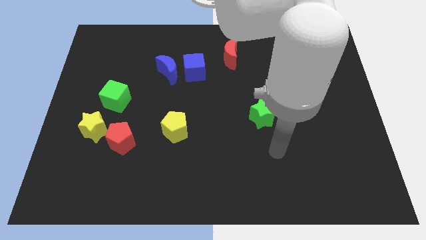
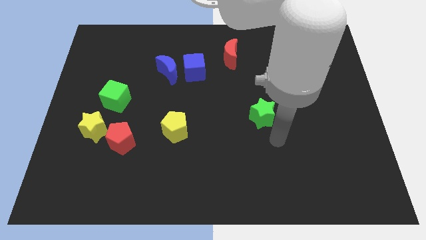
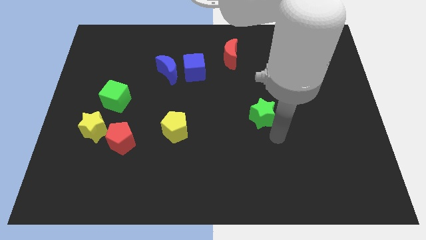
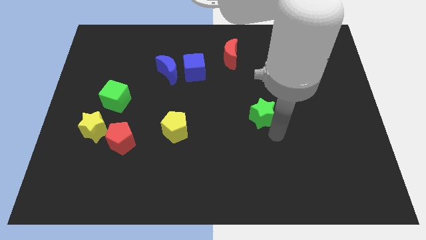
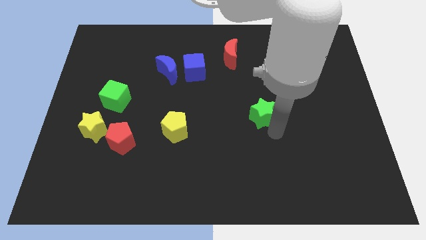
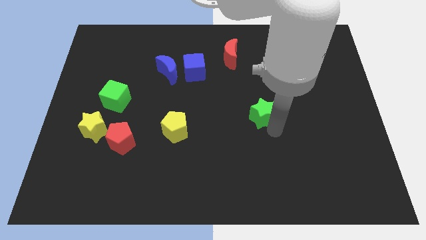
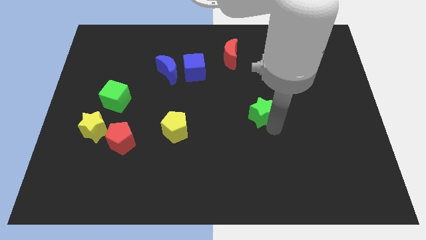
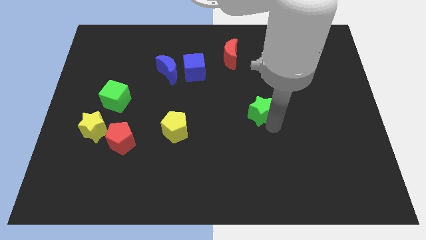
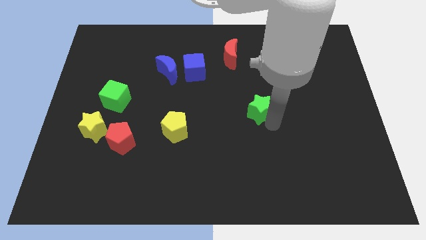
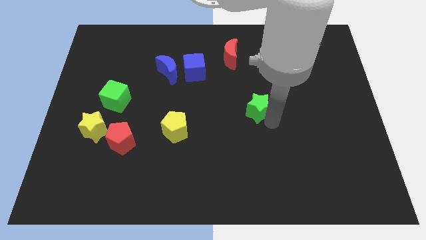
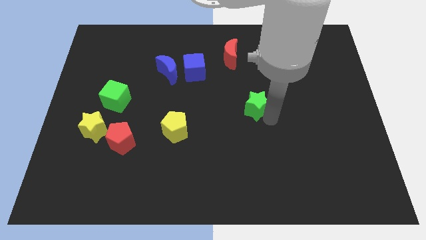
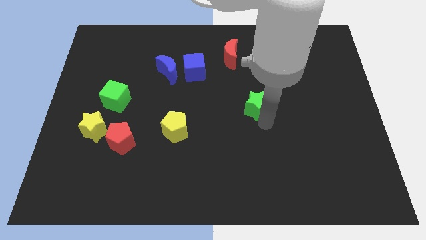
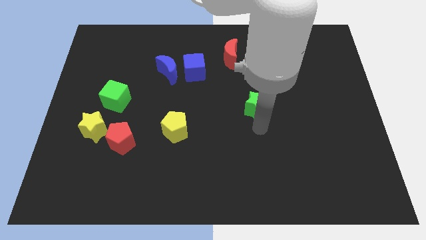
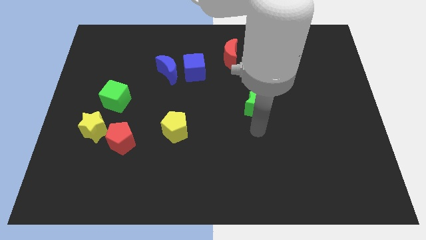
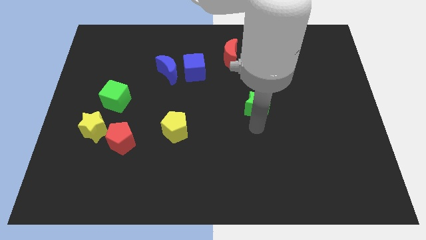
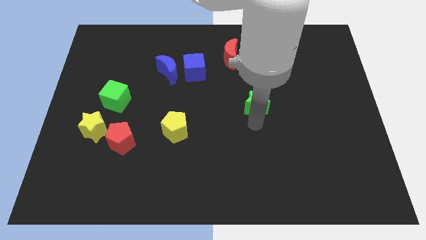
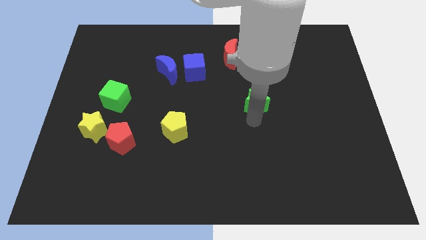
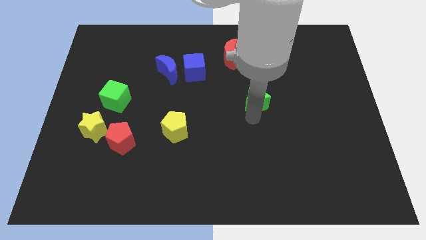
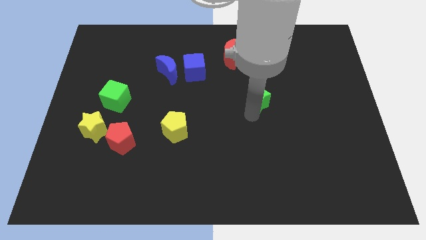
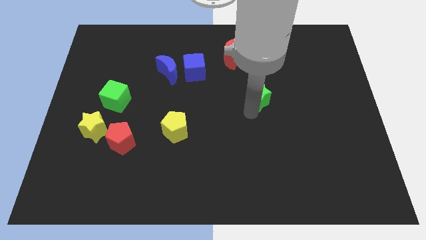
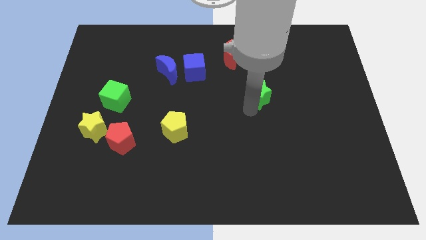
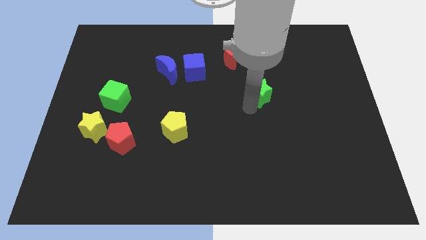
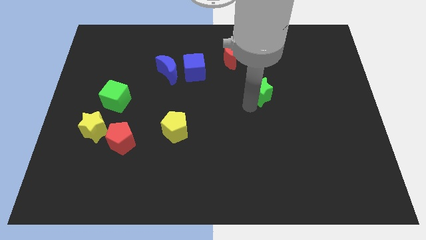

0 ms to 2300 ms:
slightly move the green star up

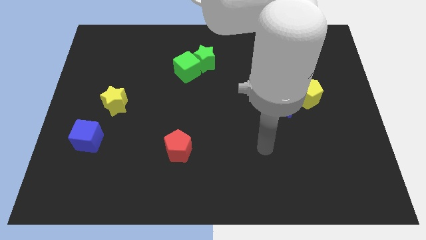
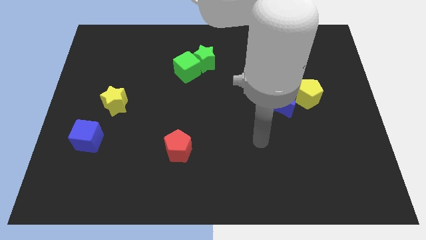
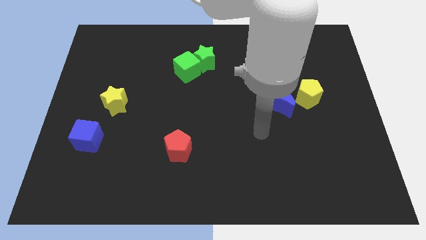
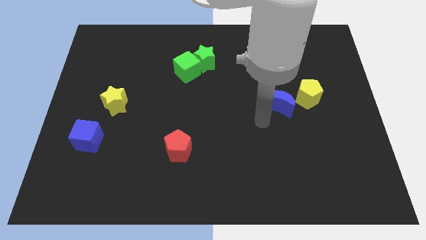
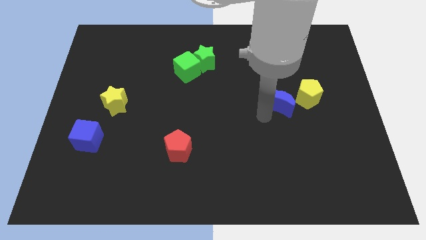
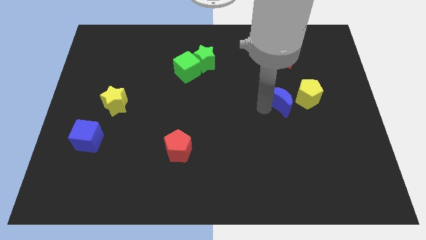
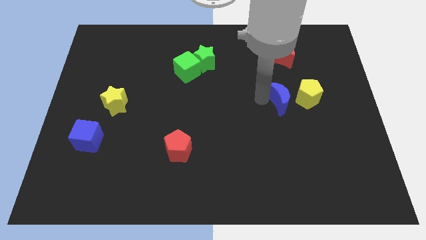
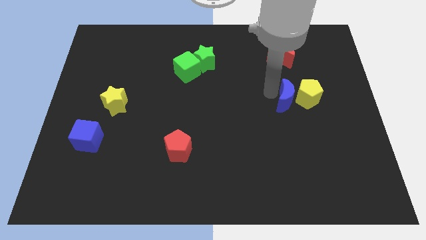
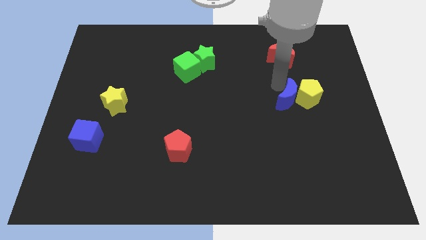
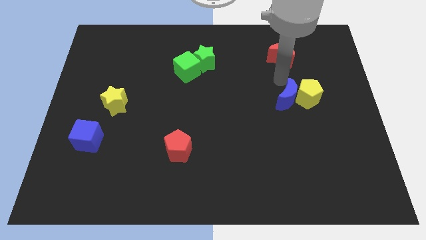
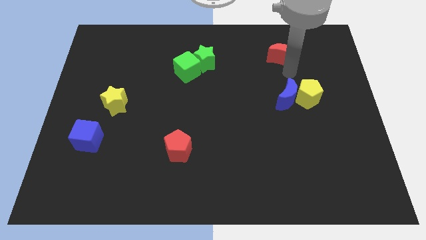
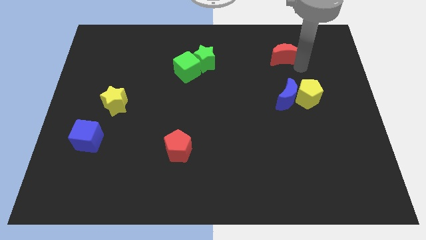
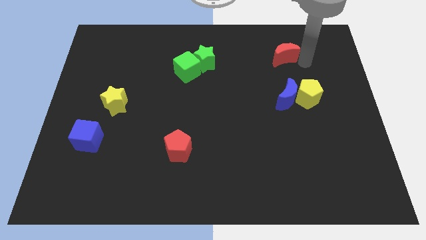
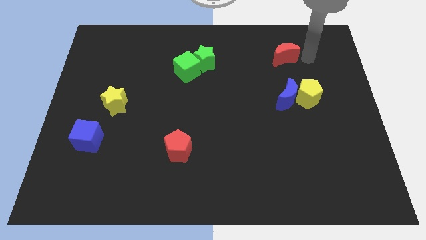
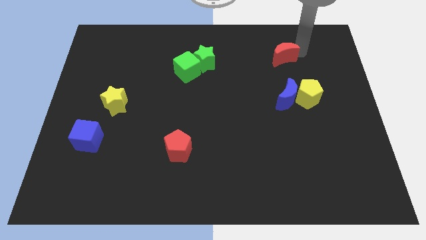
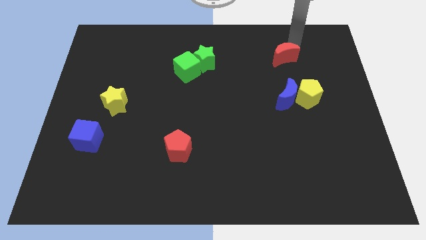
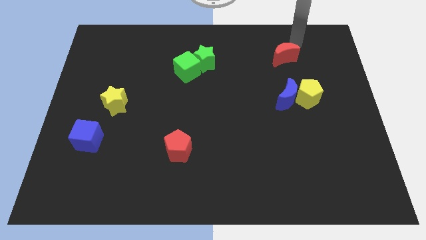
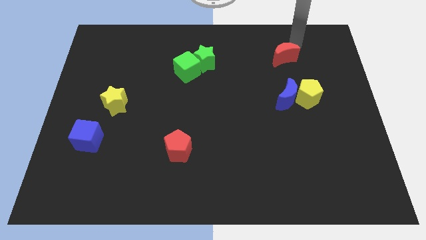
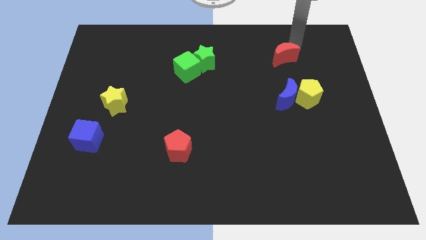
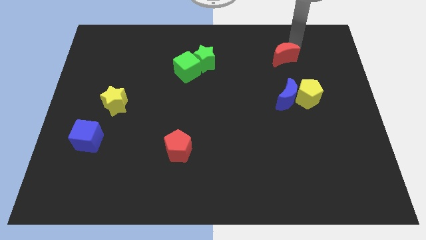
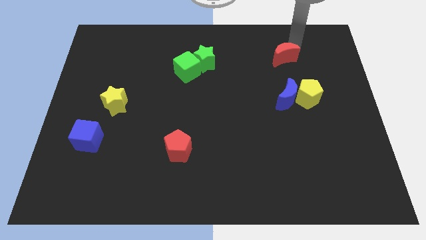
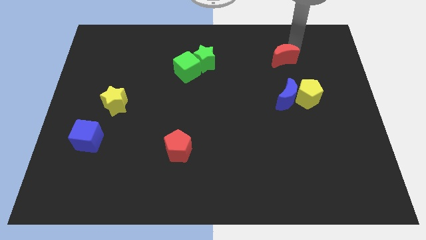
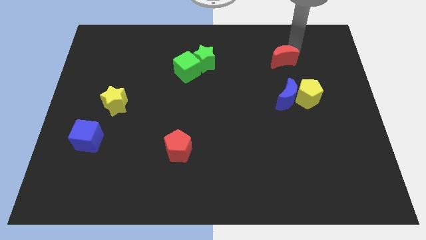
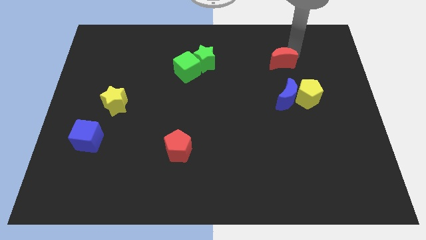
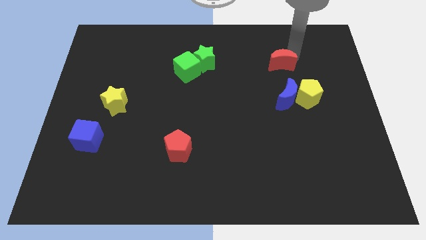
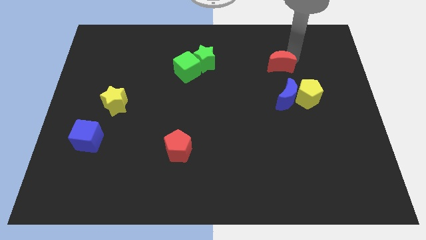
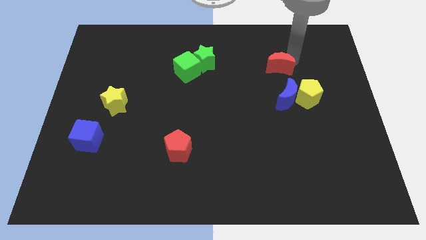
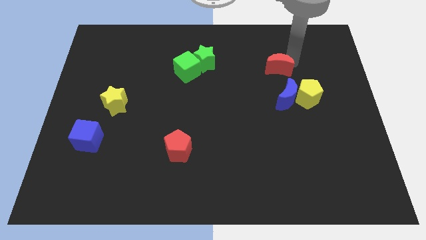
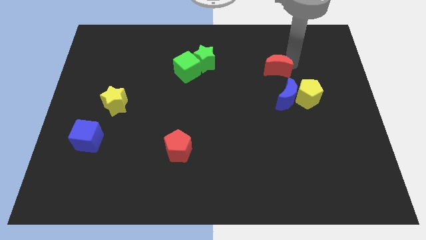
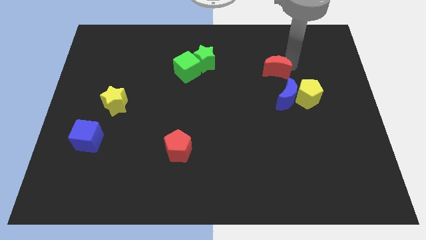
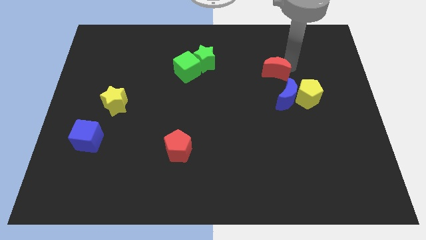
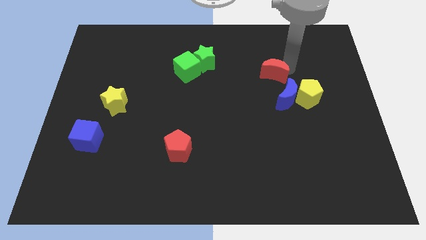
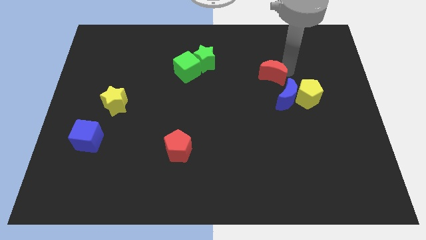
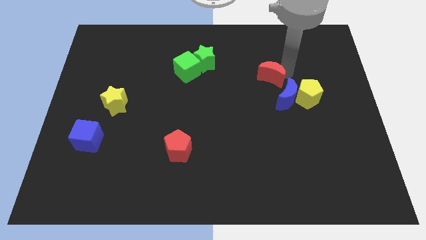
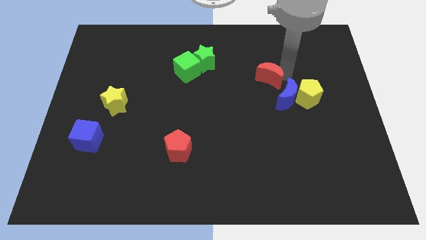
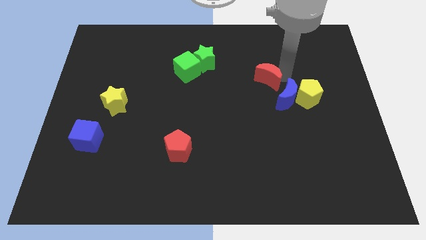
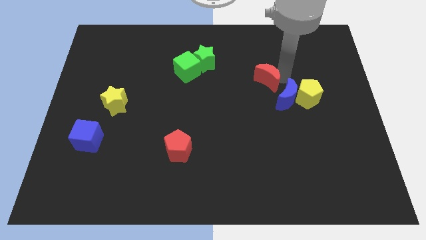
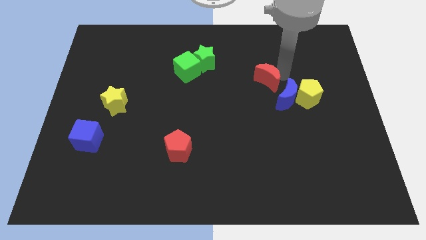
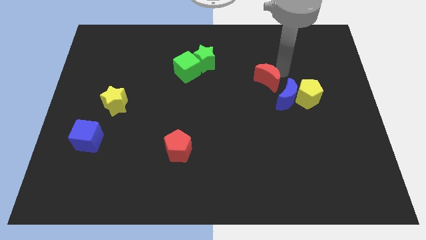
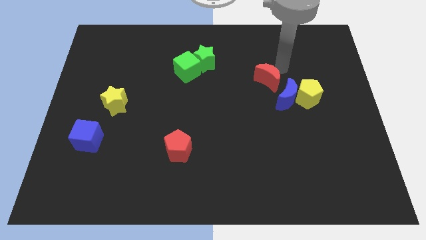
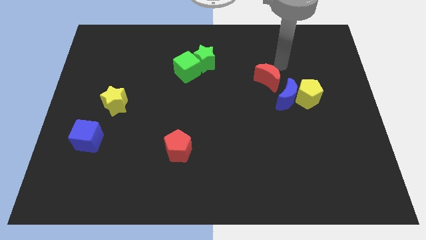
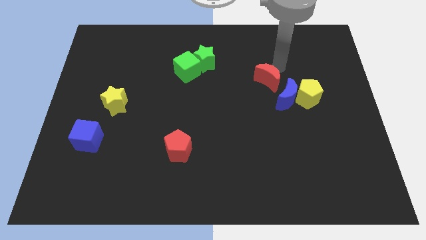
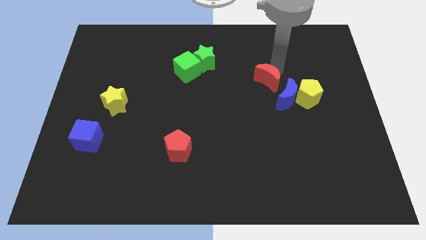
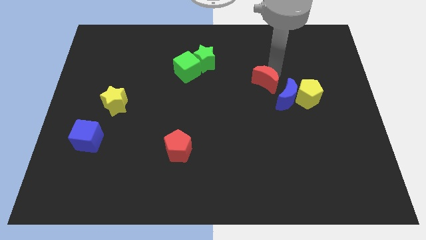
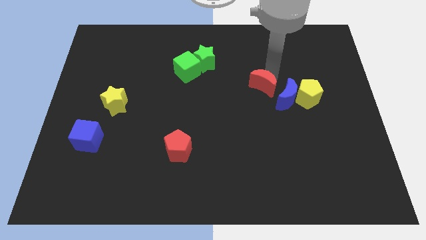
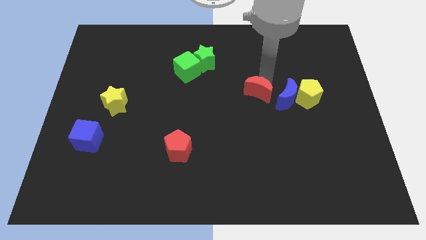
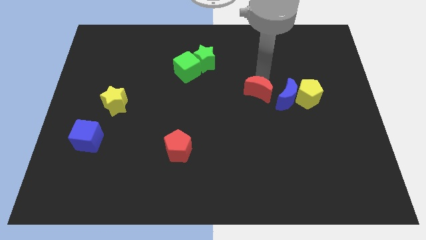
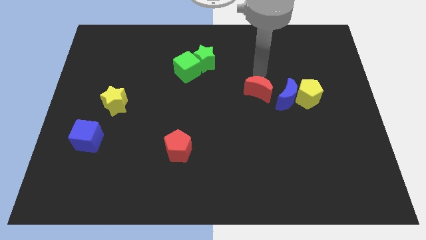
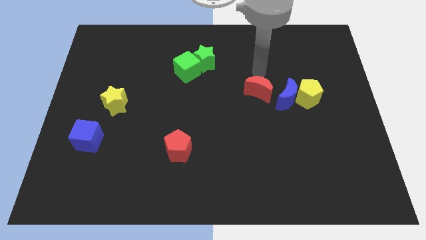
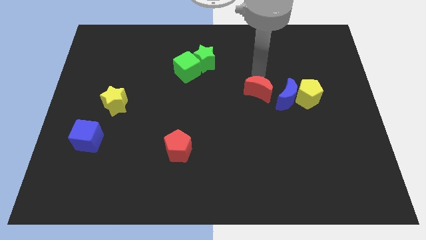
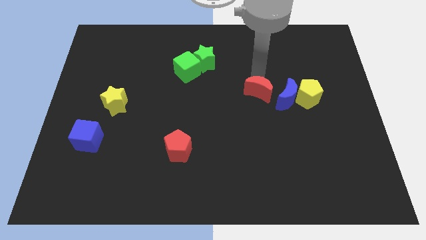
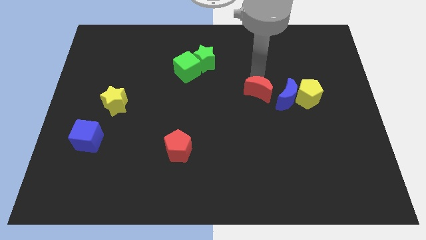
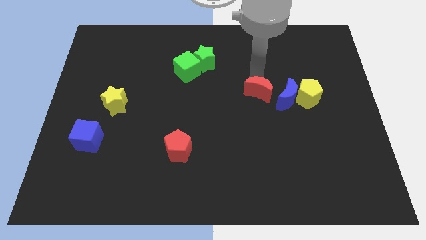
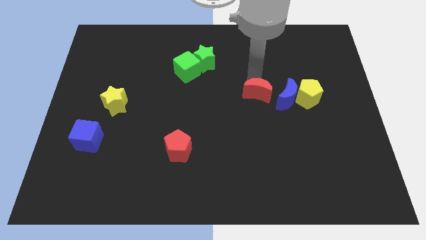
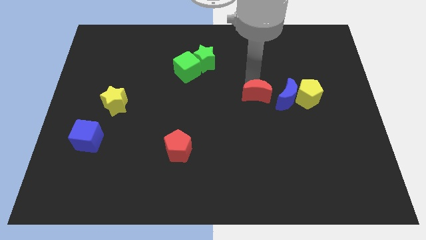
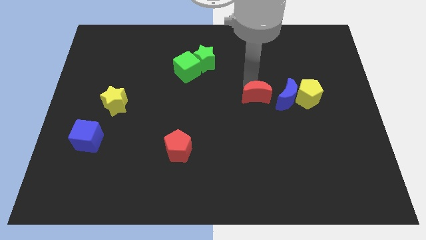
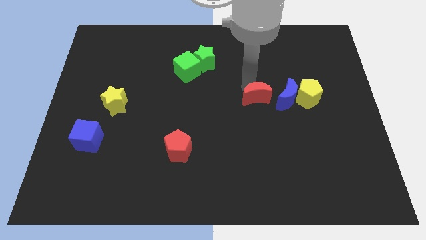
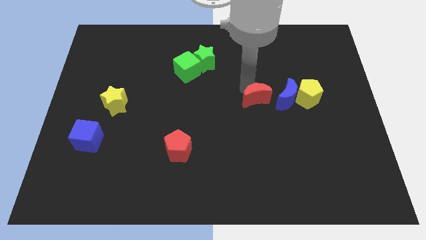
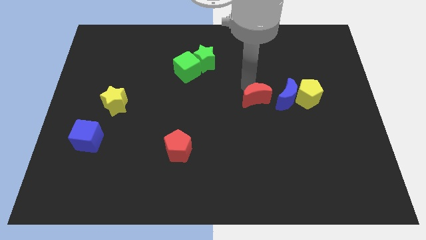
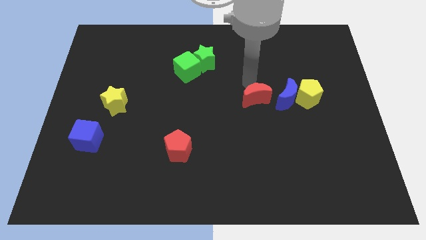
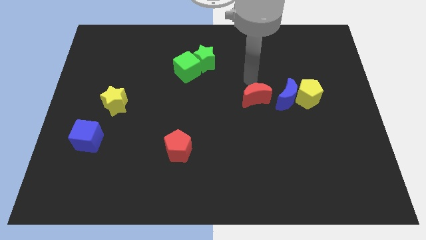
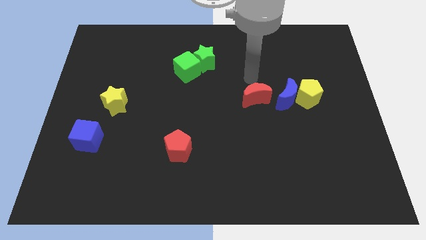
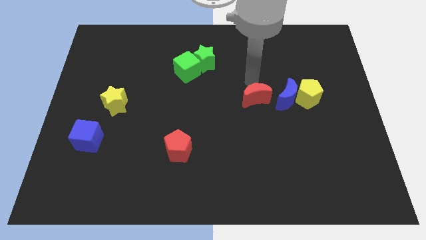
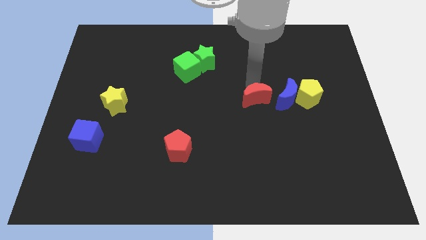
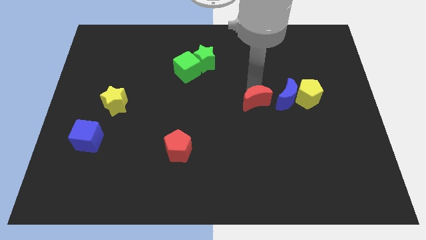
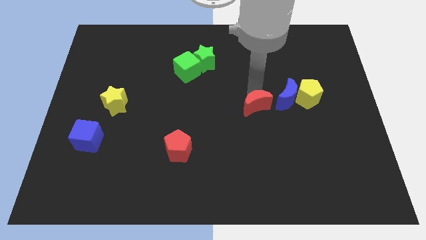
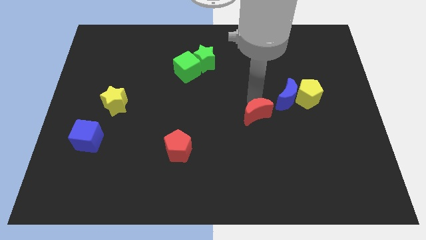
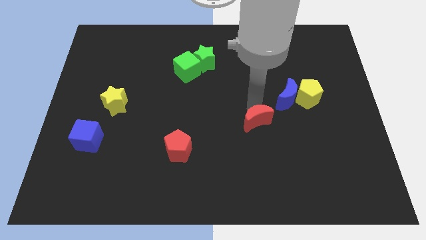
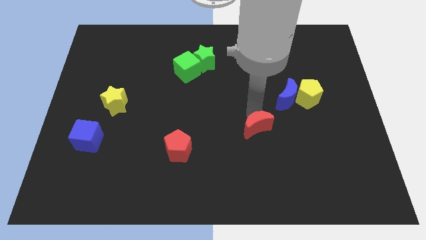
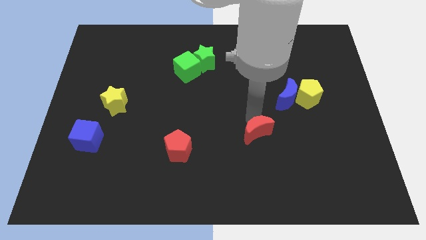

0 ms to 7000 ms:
push the red moon downwards
